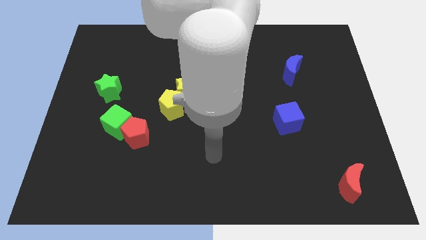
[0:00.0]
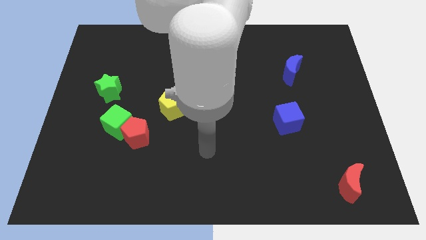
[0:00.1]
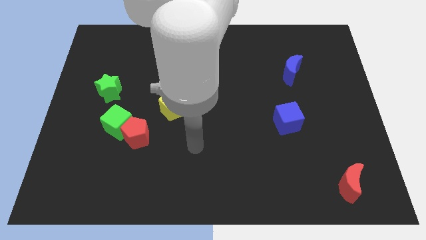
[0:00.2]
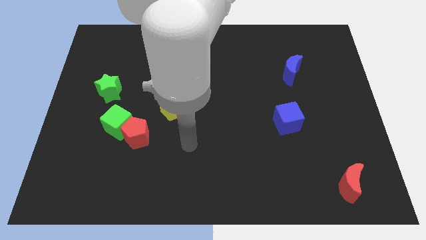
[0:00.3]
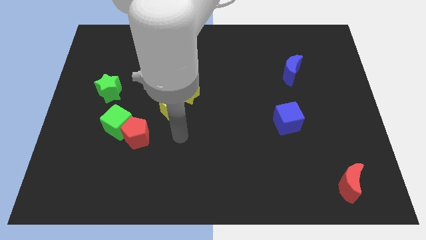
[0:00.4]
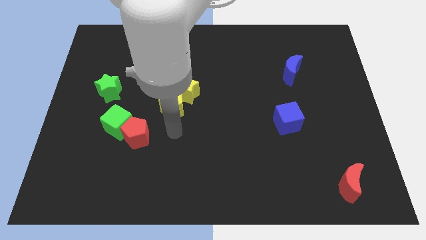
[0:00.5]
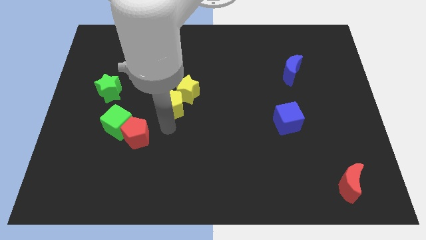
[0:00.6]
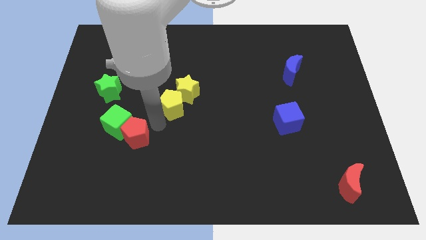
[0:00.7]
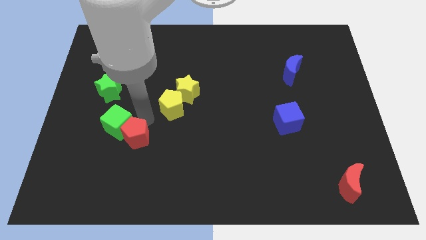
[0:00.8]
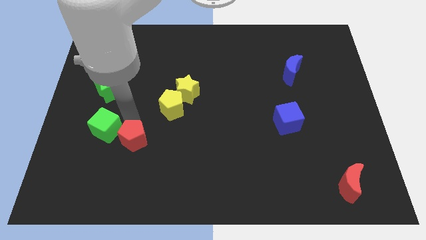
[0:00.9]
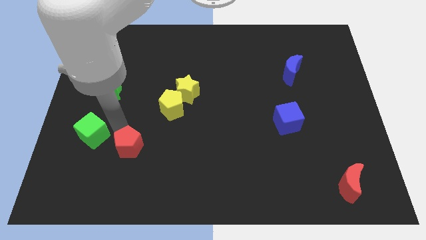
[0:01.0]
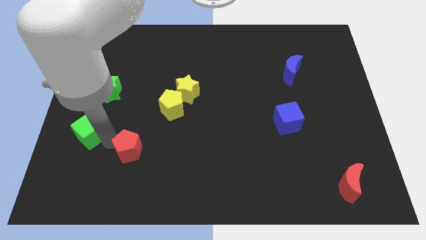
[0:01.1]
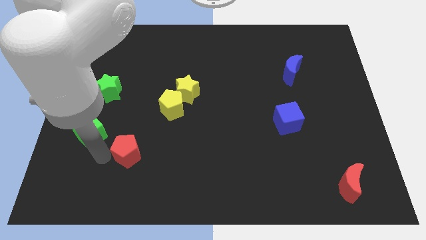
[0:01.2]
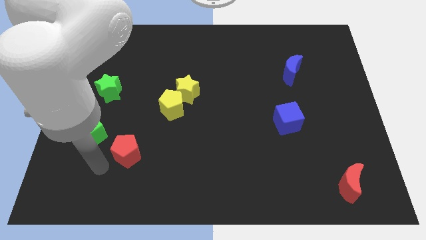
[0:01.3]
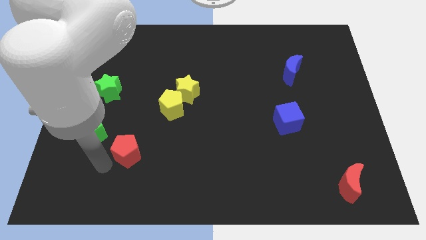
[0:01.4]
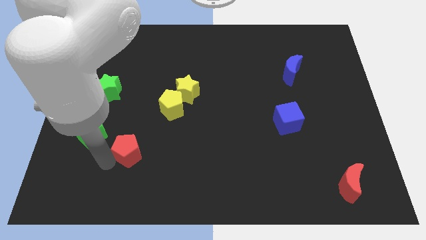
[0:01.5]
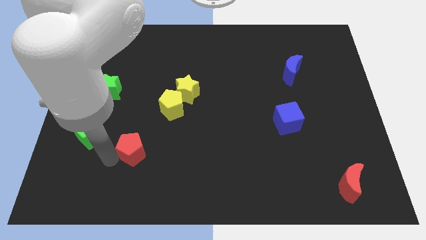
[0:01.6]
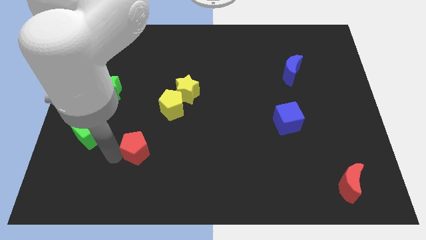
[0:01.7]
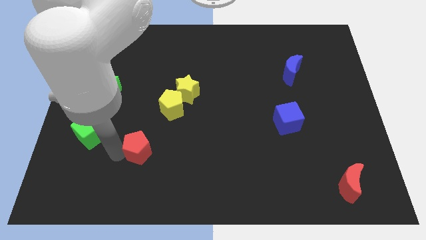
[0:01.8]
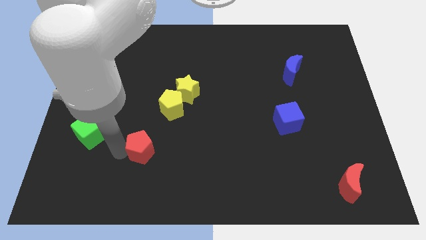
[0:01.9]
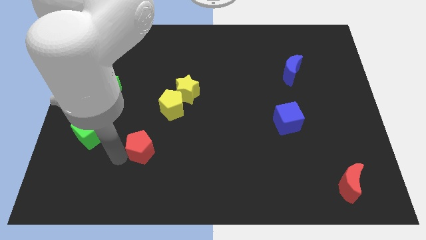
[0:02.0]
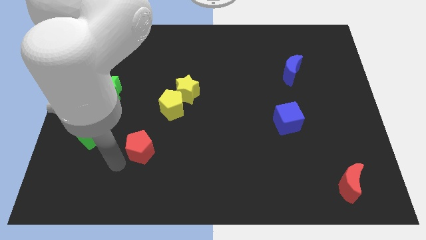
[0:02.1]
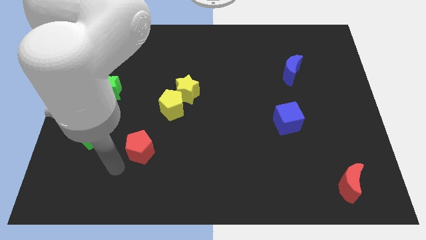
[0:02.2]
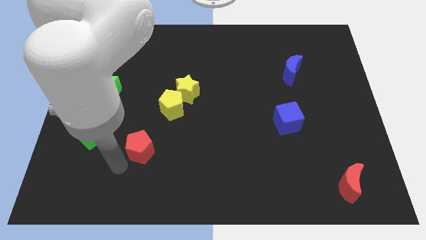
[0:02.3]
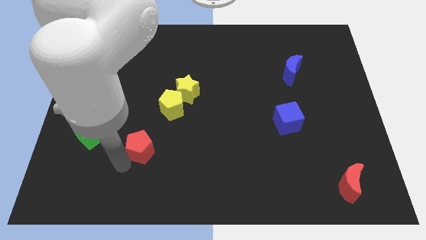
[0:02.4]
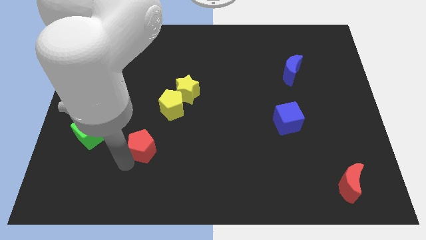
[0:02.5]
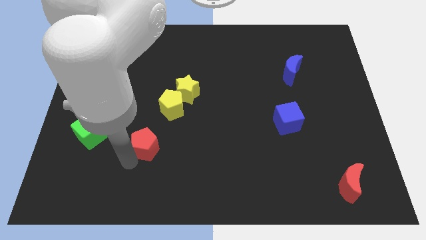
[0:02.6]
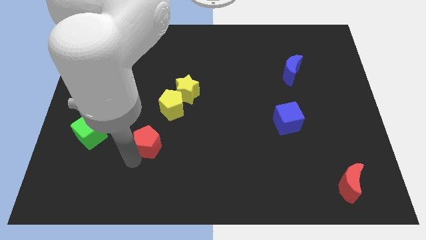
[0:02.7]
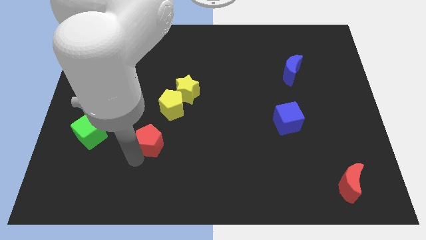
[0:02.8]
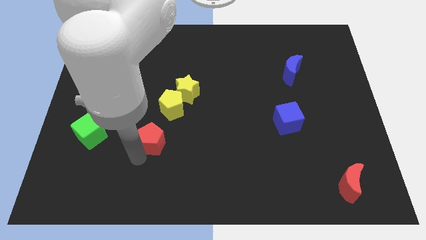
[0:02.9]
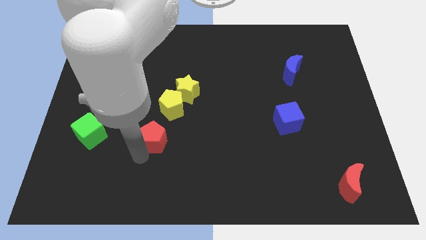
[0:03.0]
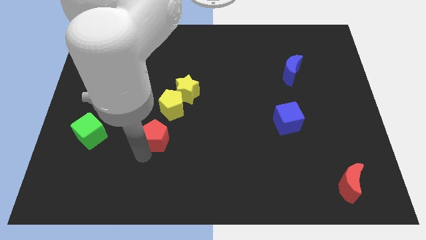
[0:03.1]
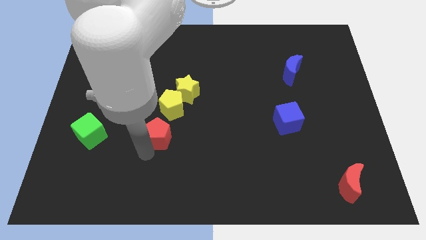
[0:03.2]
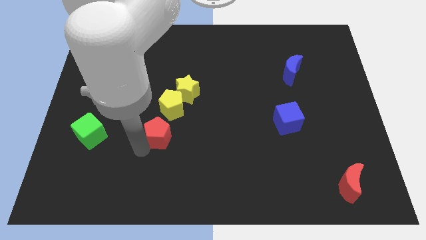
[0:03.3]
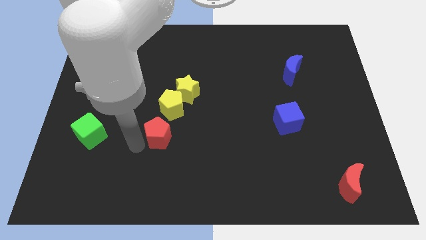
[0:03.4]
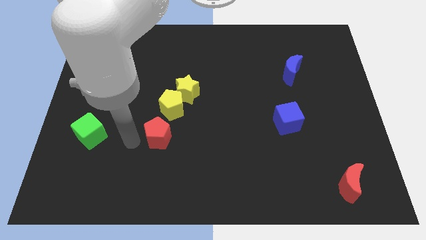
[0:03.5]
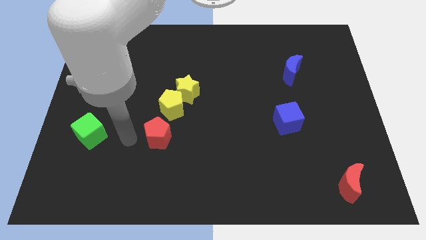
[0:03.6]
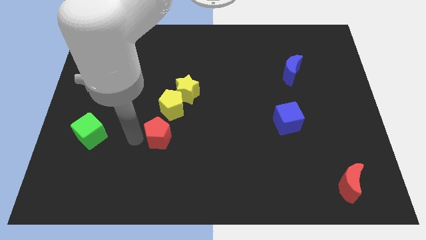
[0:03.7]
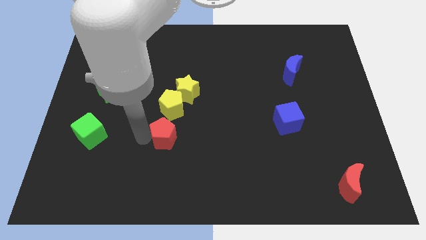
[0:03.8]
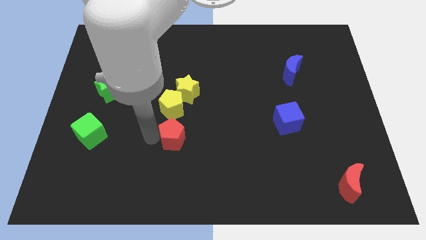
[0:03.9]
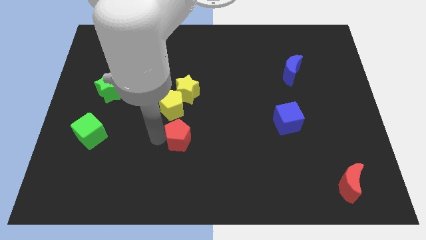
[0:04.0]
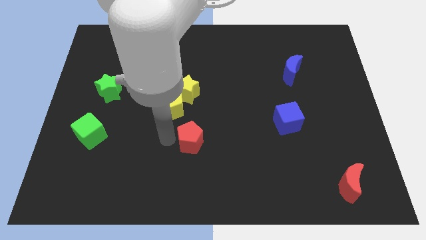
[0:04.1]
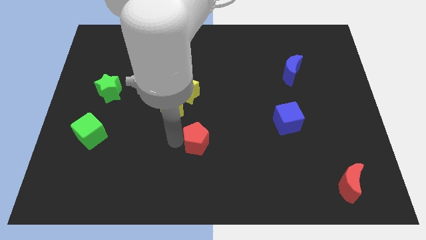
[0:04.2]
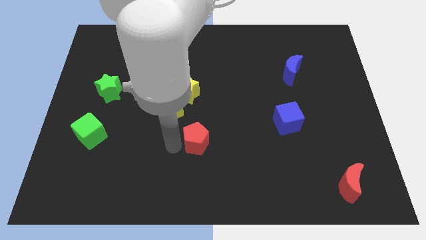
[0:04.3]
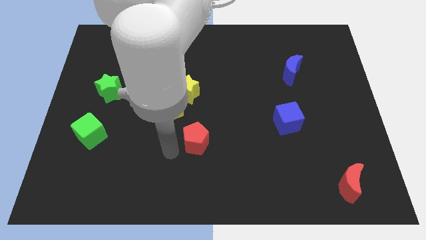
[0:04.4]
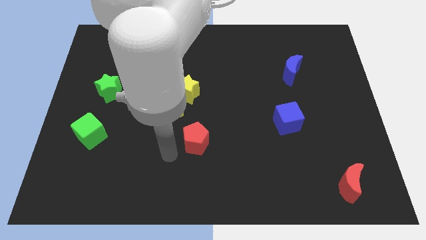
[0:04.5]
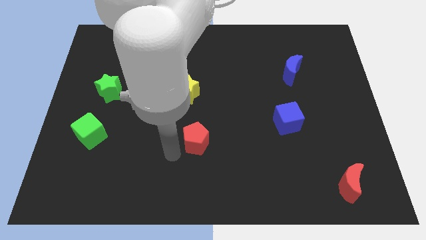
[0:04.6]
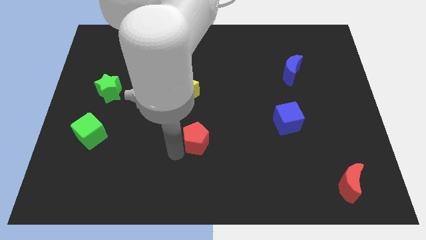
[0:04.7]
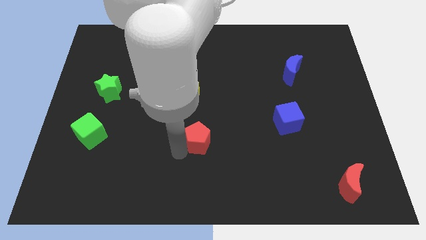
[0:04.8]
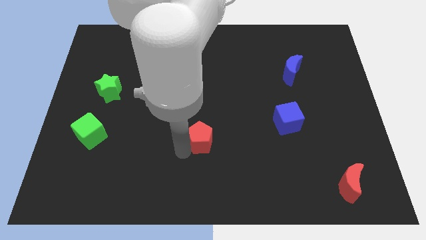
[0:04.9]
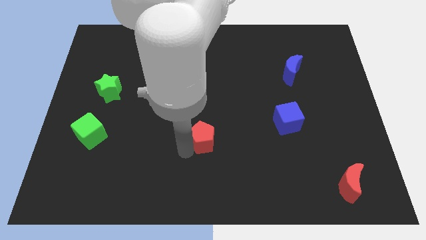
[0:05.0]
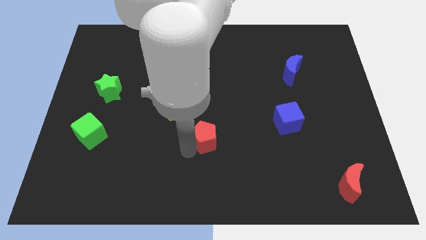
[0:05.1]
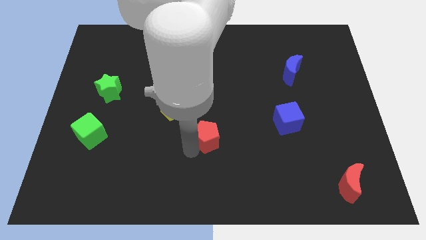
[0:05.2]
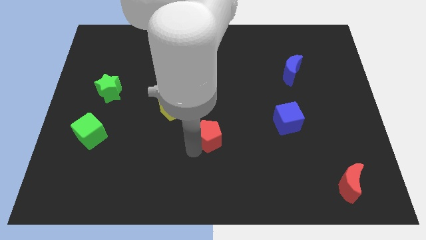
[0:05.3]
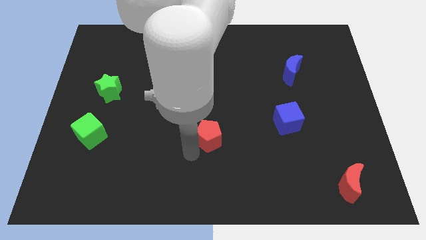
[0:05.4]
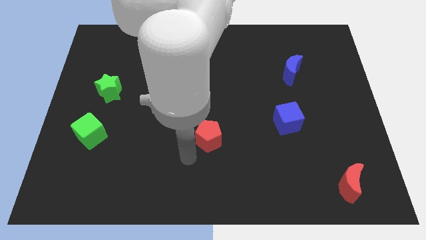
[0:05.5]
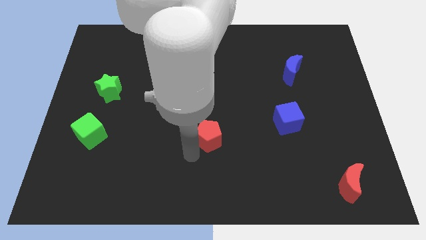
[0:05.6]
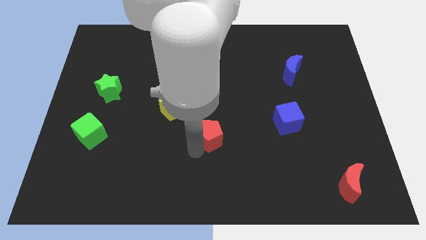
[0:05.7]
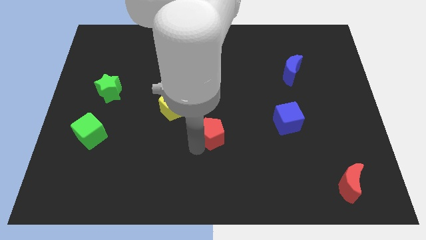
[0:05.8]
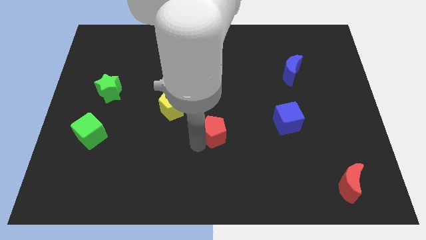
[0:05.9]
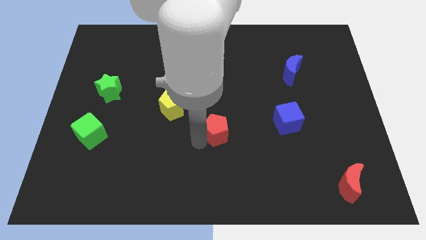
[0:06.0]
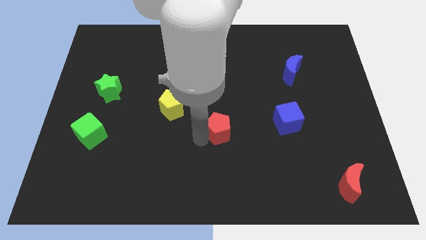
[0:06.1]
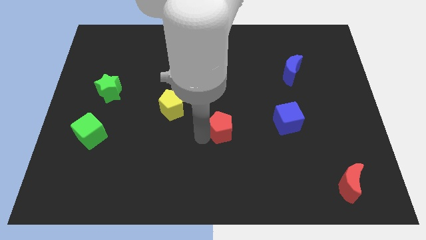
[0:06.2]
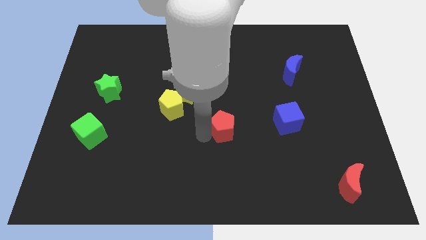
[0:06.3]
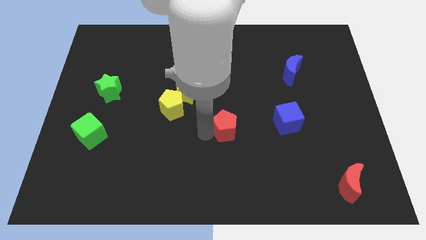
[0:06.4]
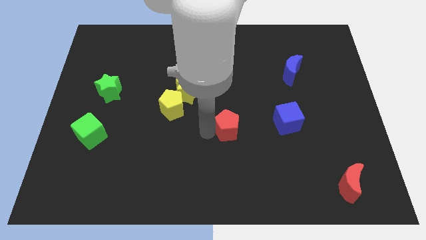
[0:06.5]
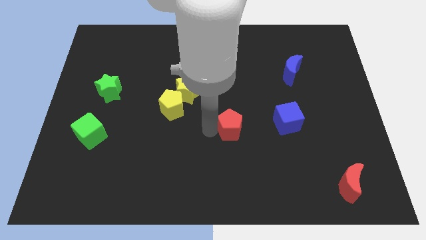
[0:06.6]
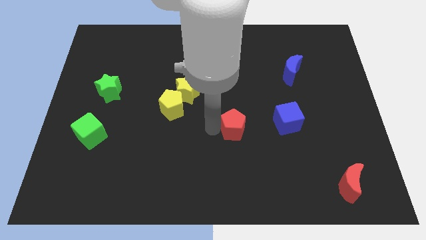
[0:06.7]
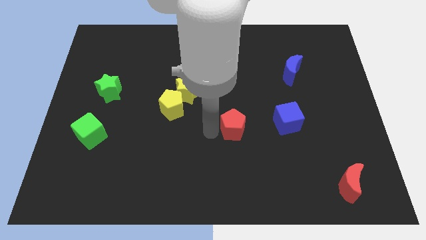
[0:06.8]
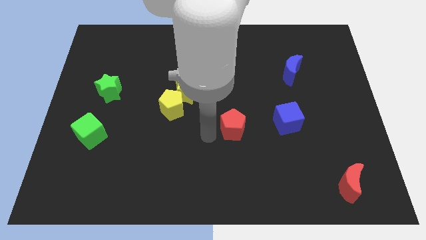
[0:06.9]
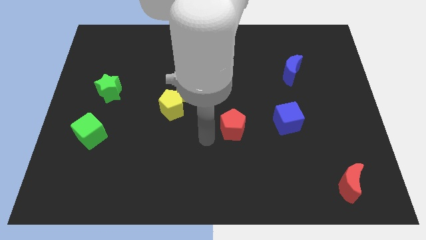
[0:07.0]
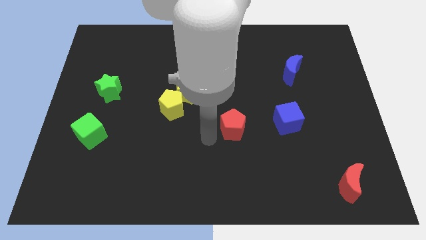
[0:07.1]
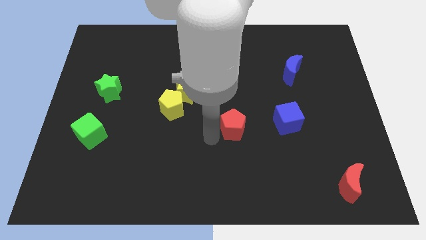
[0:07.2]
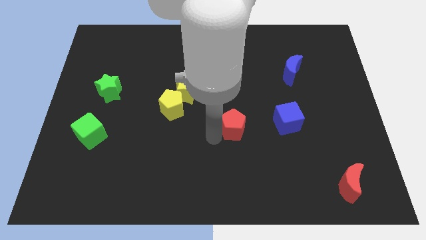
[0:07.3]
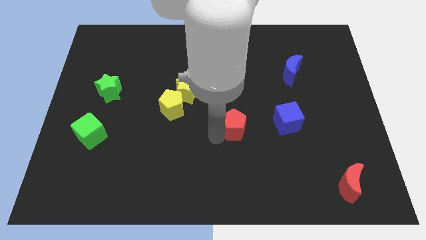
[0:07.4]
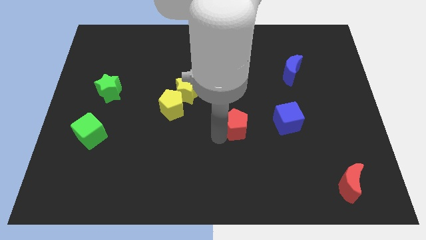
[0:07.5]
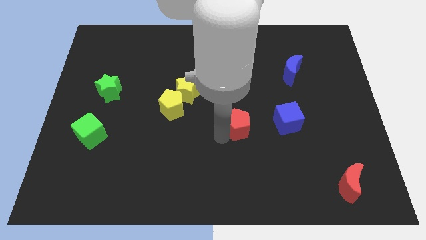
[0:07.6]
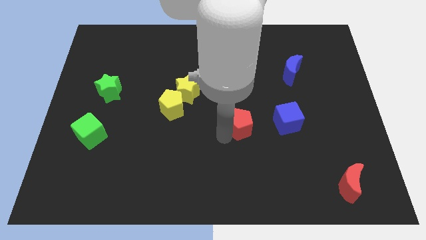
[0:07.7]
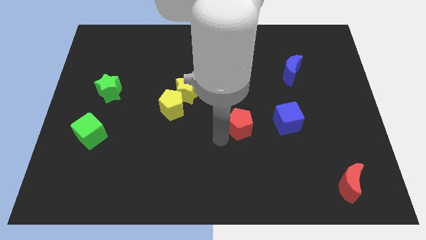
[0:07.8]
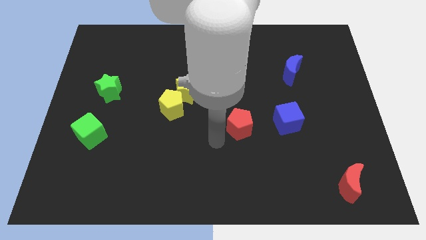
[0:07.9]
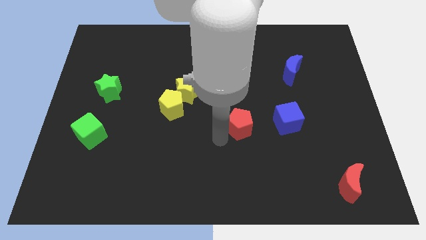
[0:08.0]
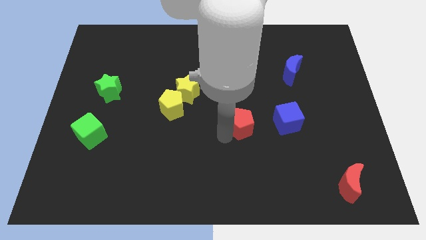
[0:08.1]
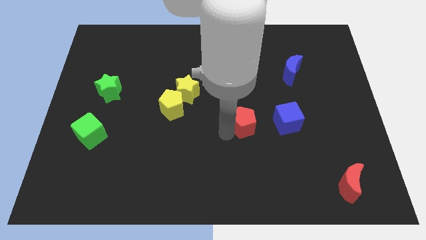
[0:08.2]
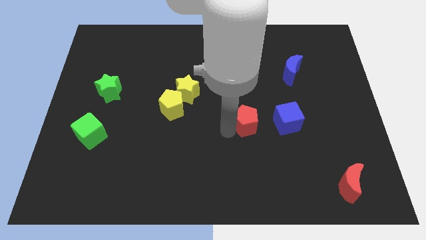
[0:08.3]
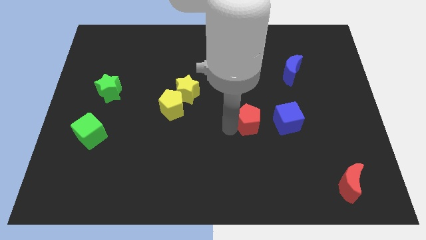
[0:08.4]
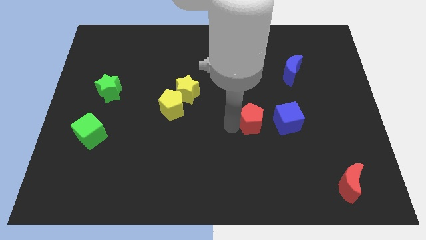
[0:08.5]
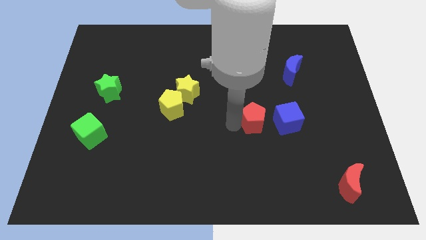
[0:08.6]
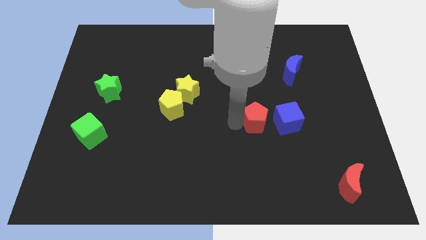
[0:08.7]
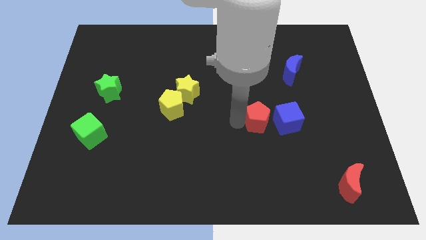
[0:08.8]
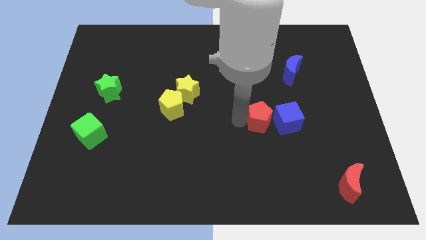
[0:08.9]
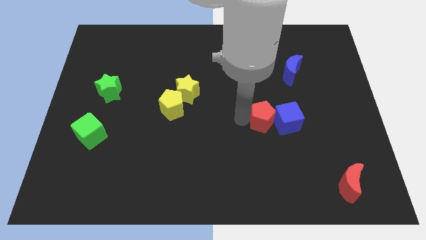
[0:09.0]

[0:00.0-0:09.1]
put the red pentagon close to the blue cube
